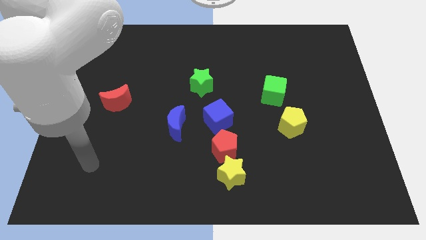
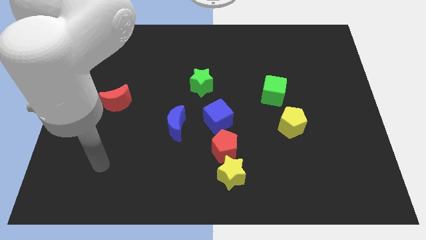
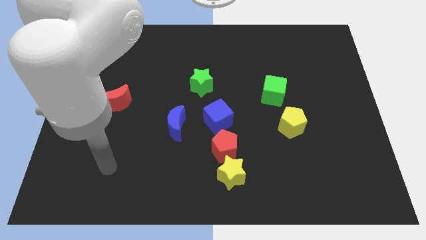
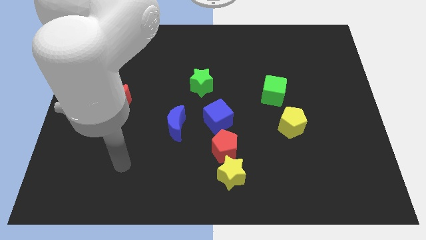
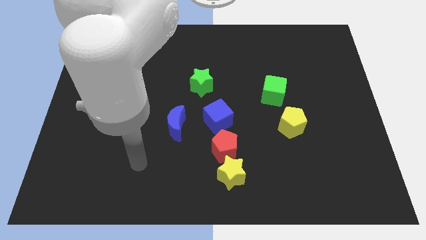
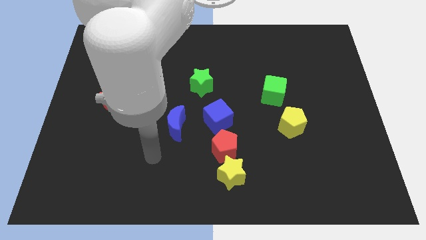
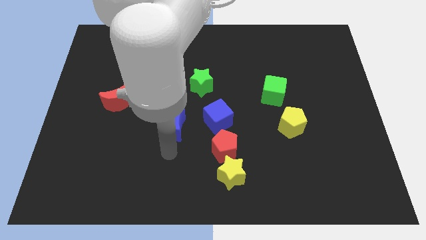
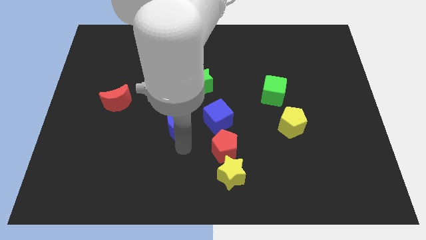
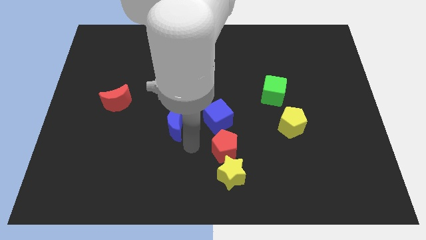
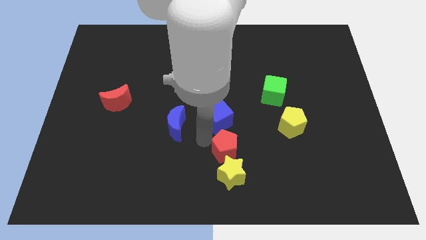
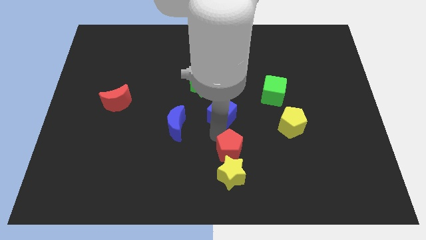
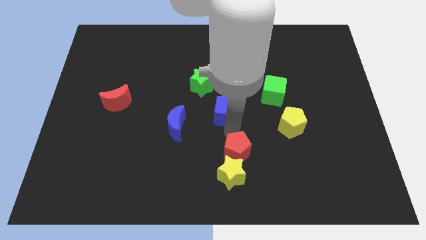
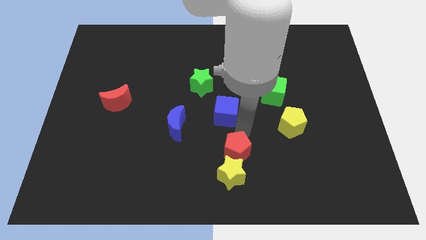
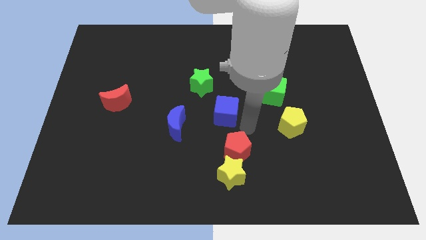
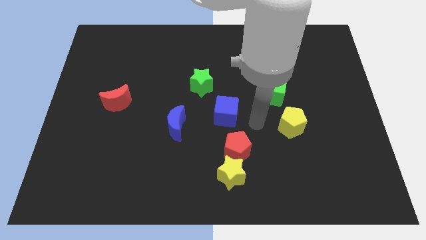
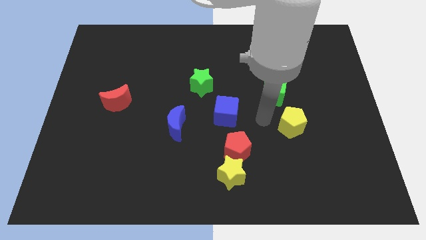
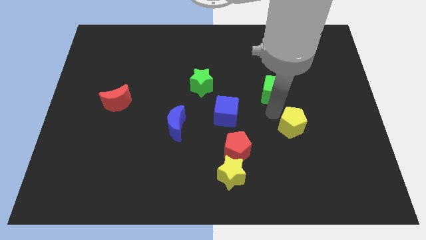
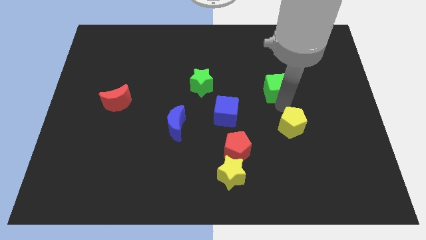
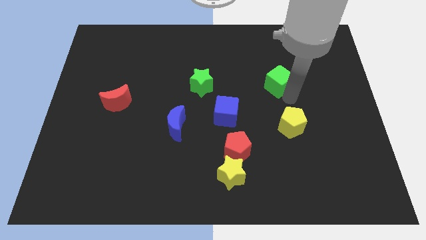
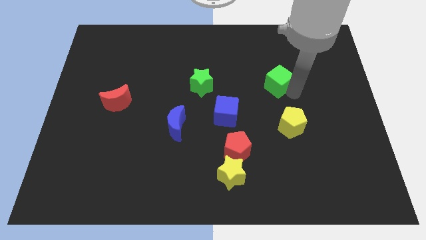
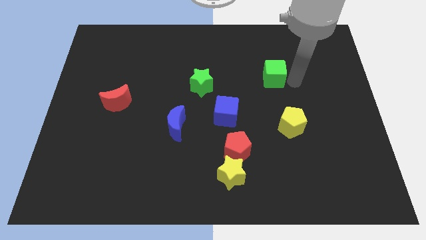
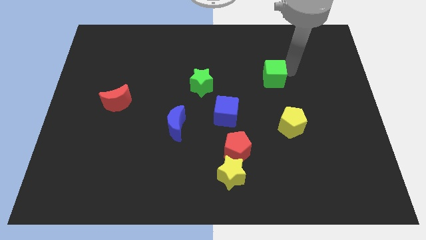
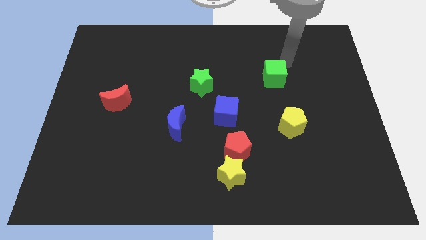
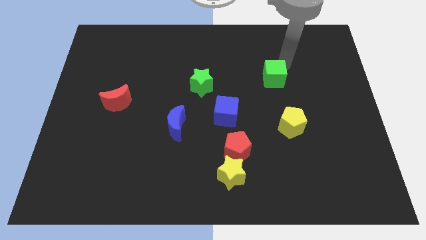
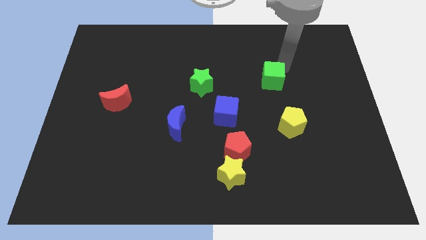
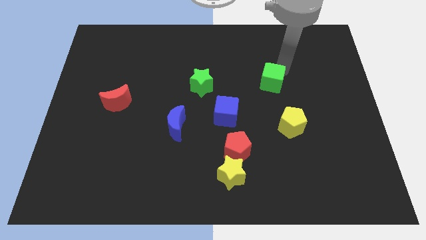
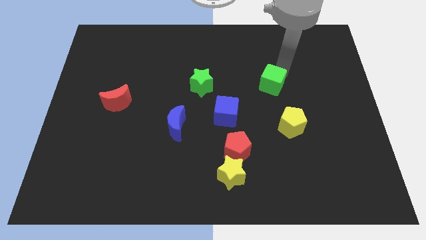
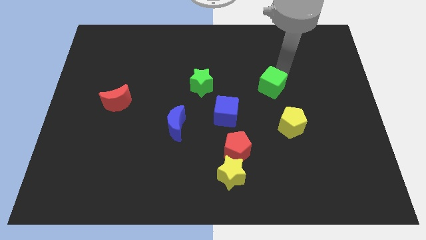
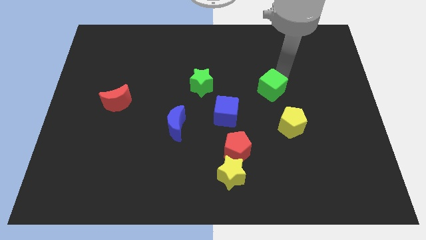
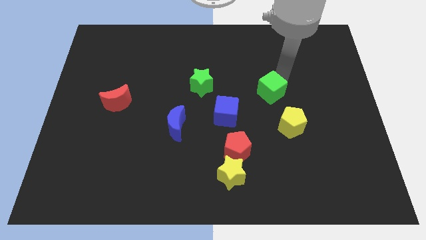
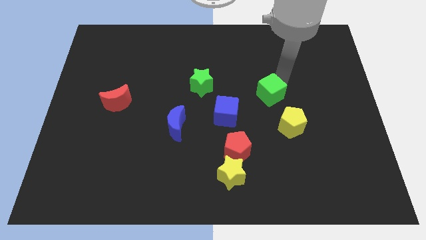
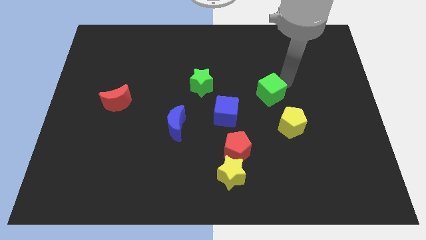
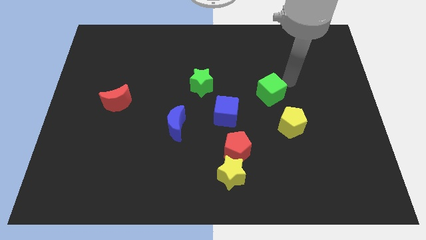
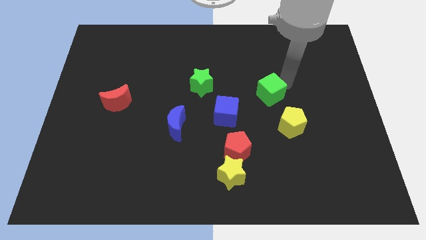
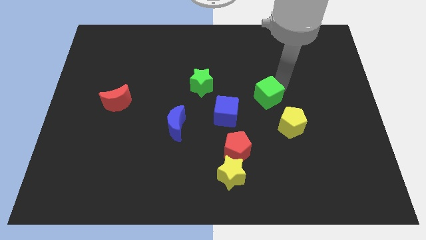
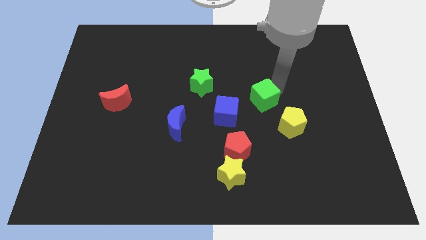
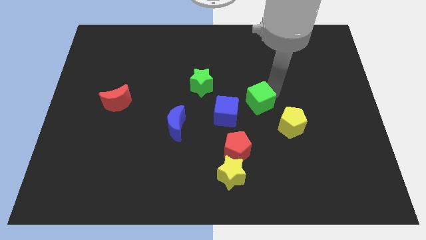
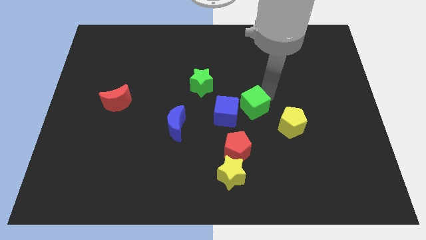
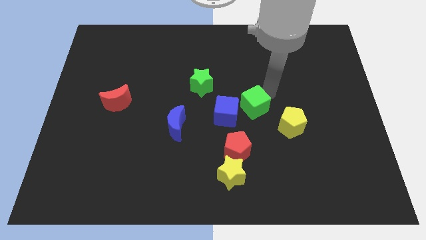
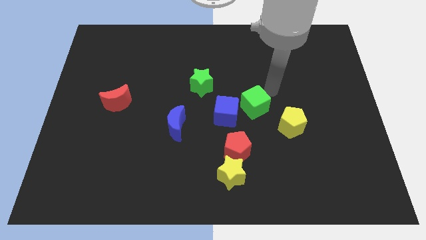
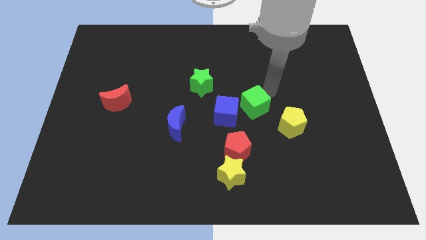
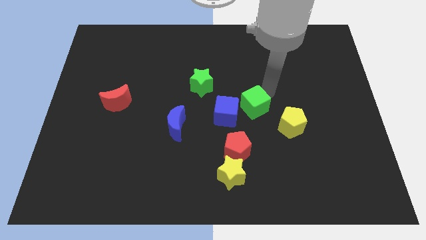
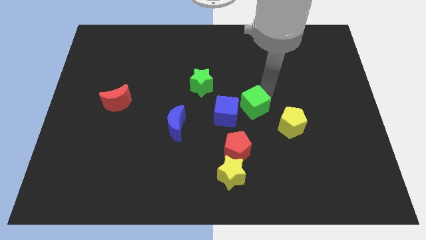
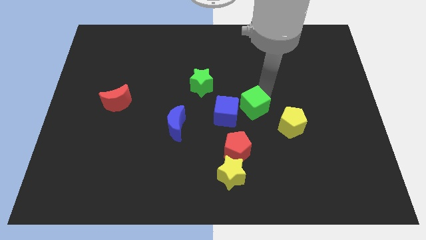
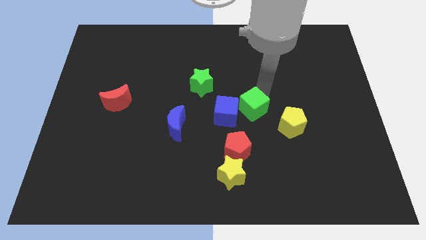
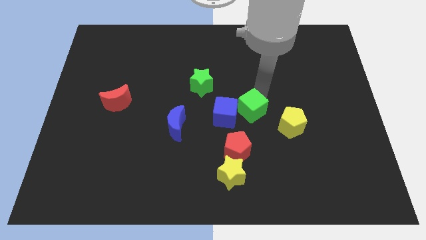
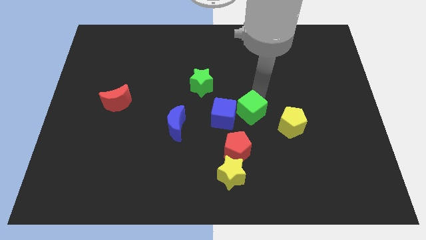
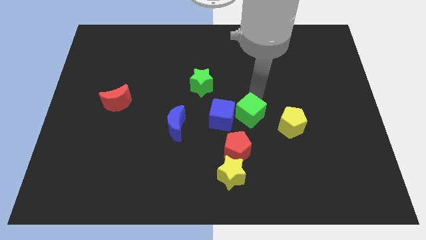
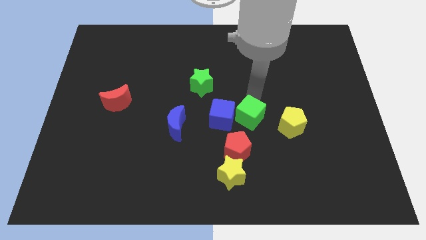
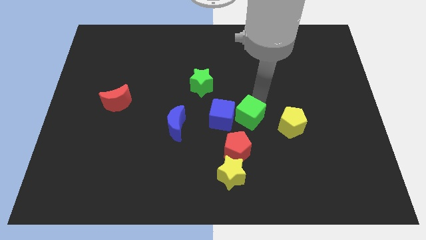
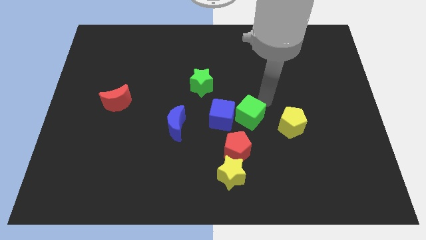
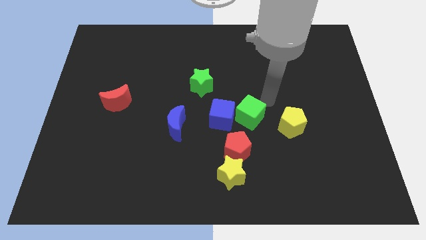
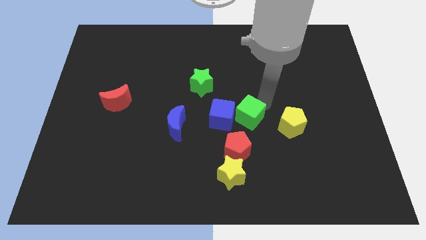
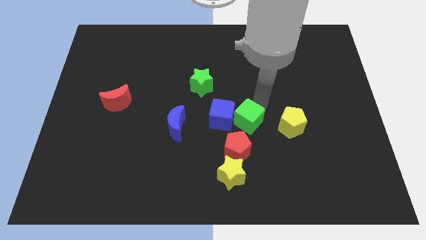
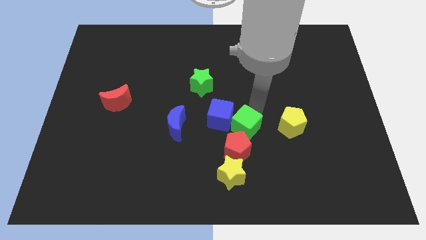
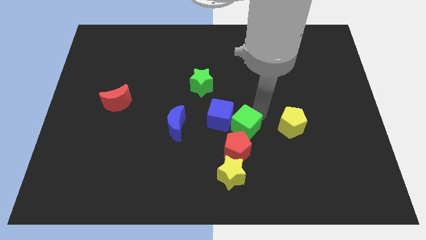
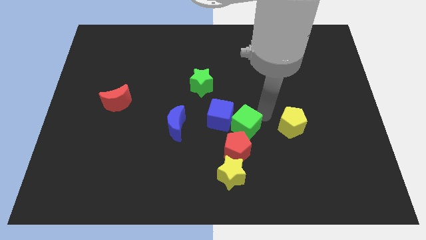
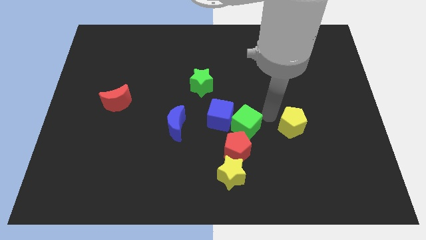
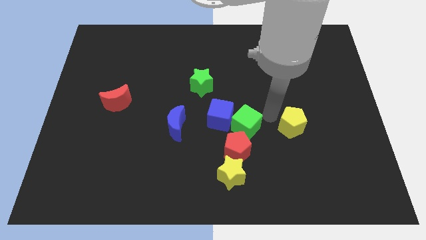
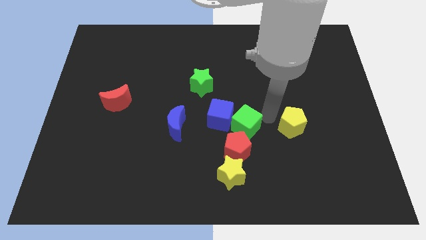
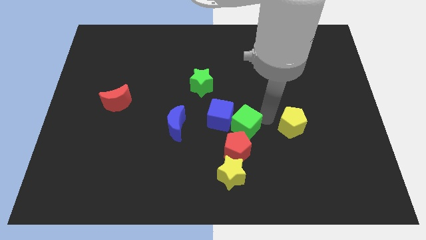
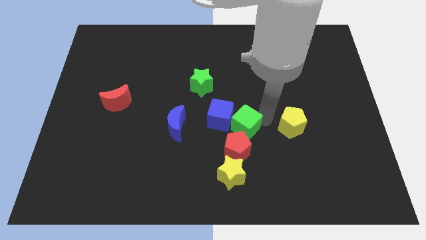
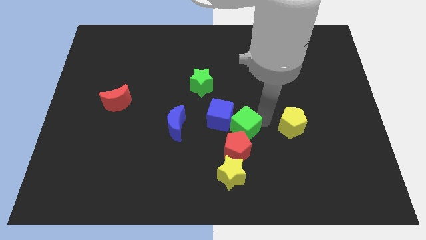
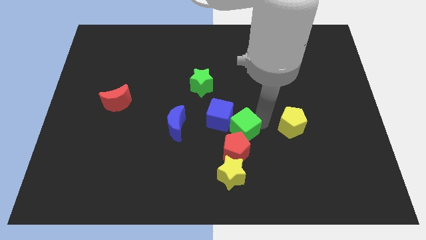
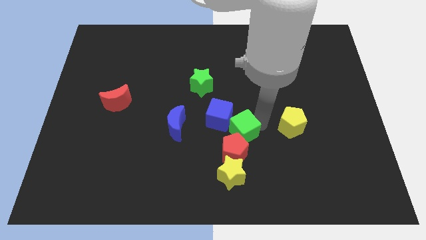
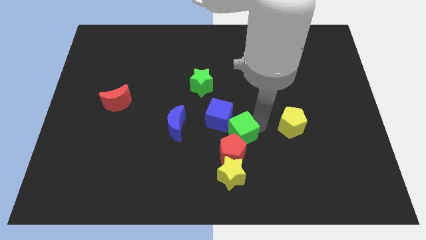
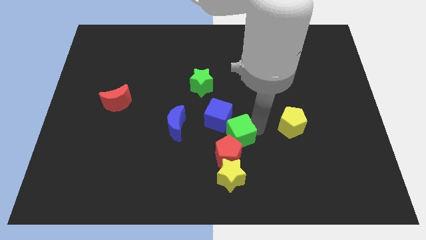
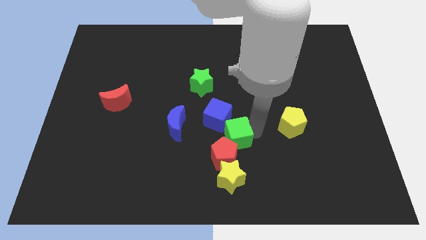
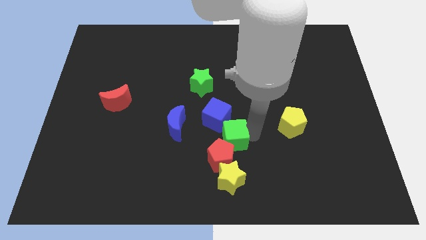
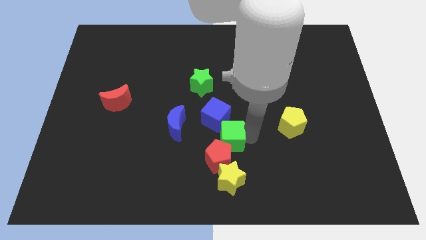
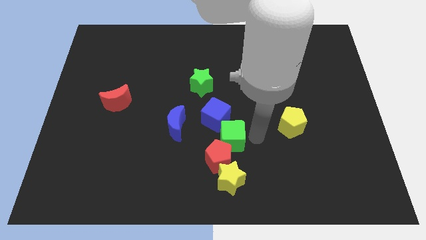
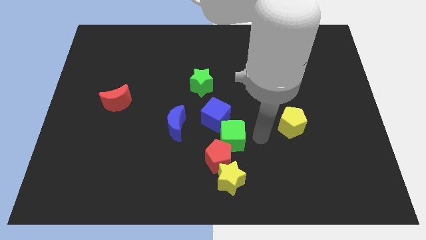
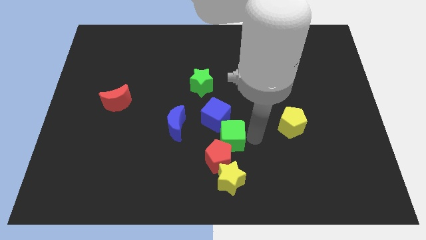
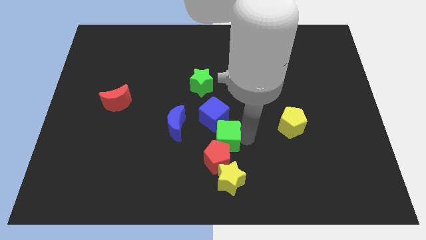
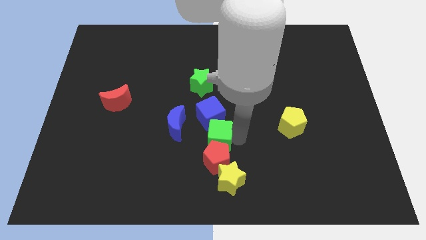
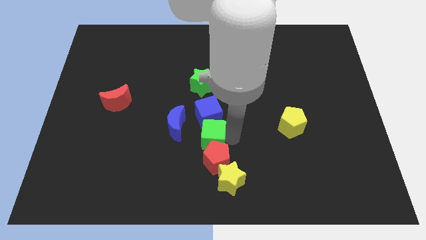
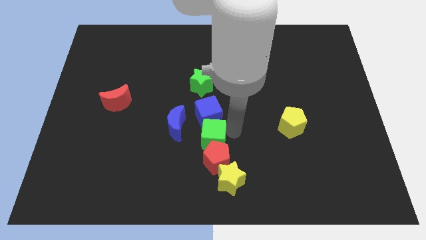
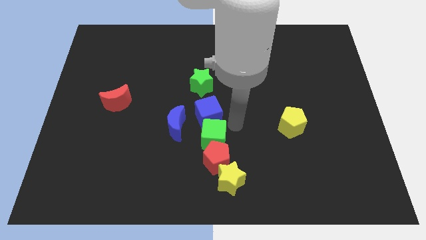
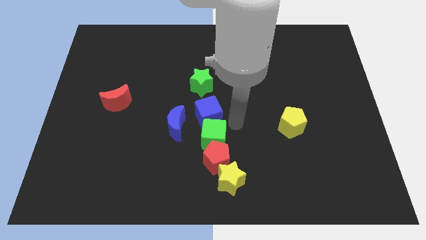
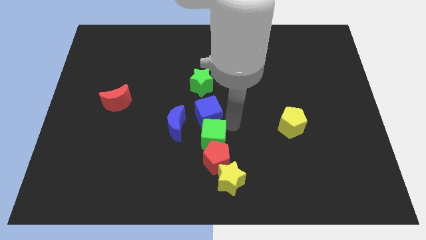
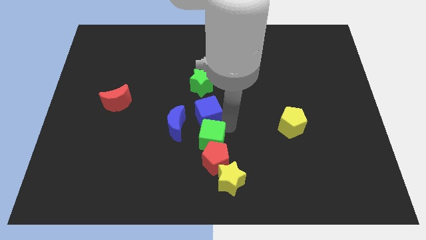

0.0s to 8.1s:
move the green cube diagonally down and left
